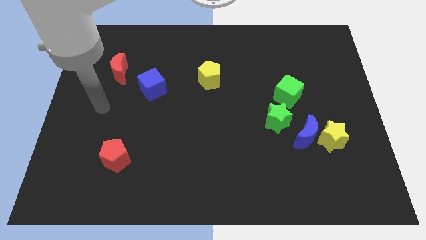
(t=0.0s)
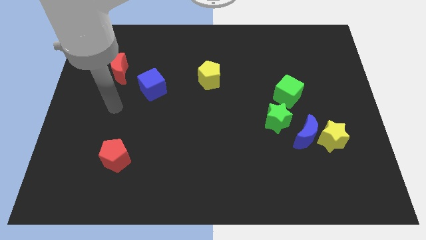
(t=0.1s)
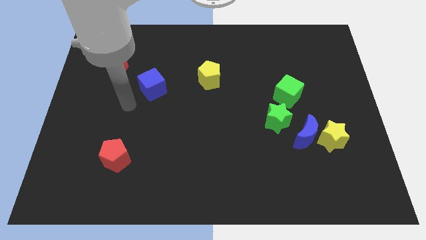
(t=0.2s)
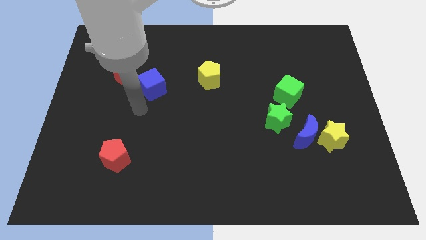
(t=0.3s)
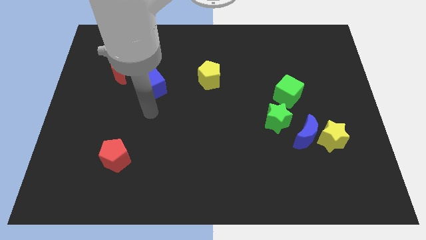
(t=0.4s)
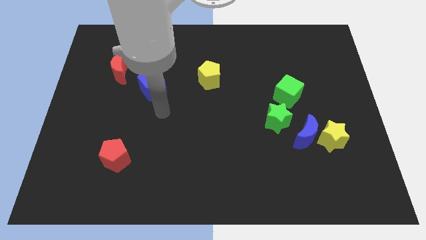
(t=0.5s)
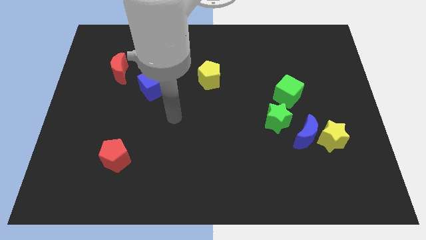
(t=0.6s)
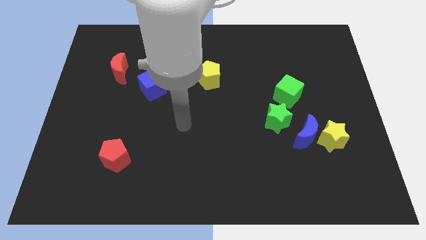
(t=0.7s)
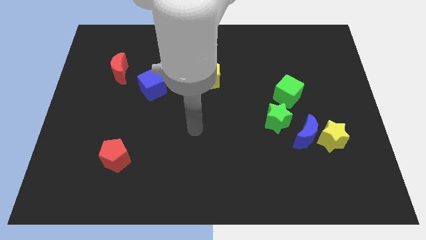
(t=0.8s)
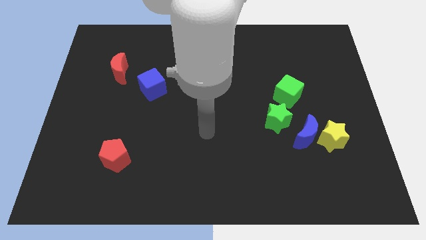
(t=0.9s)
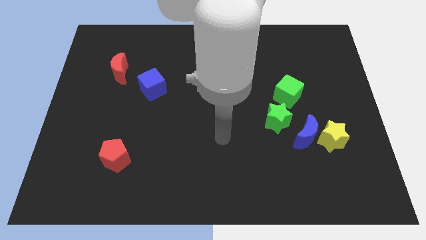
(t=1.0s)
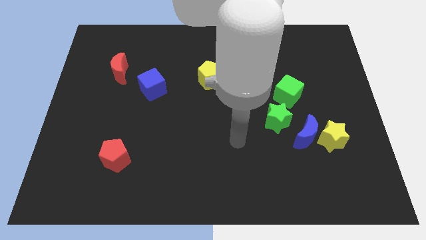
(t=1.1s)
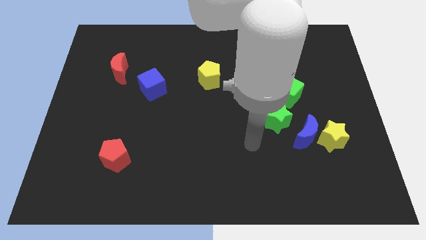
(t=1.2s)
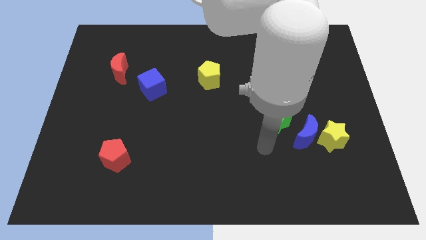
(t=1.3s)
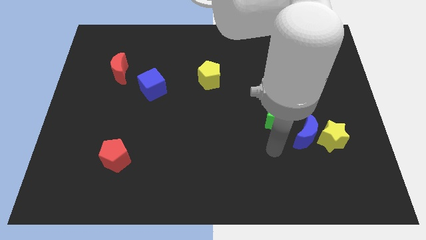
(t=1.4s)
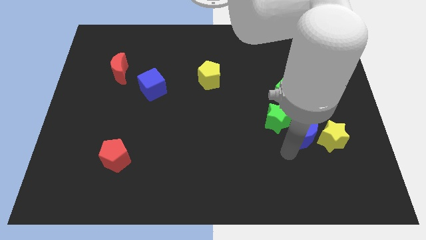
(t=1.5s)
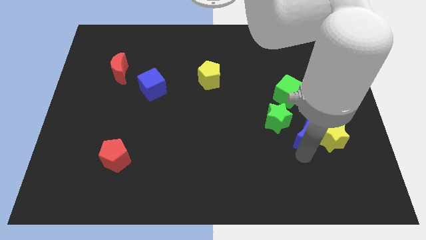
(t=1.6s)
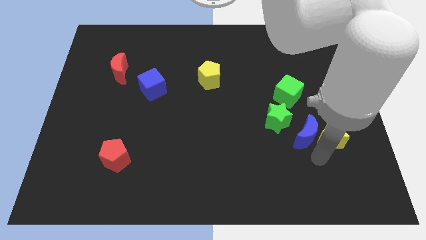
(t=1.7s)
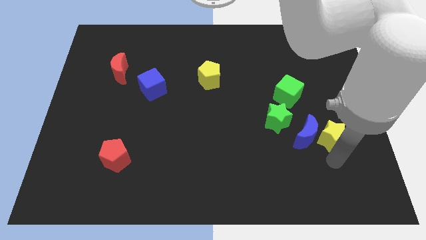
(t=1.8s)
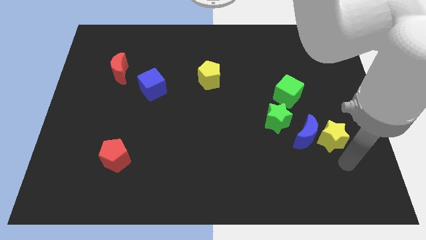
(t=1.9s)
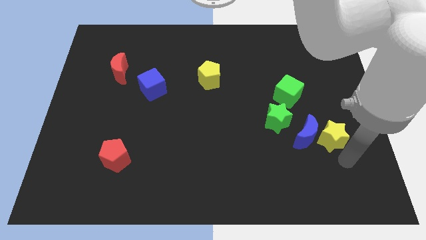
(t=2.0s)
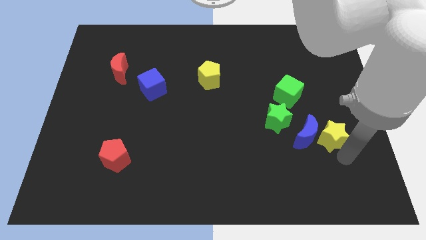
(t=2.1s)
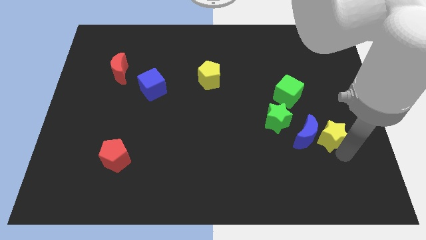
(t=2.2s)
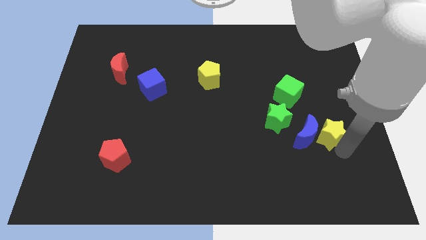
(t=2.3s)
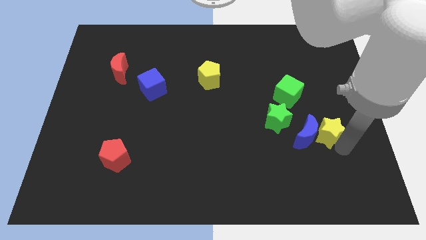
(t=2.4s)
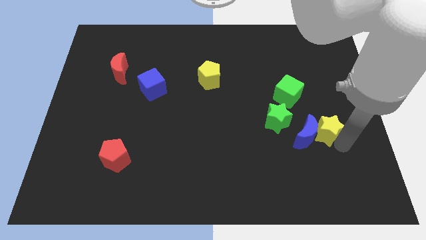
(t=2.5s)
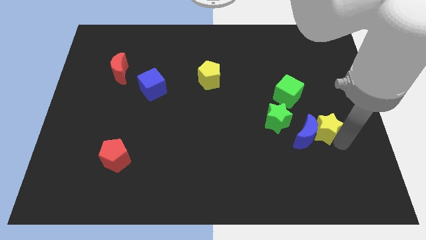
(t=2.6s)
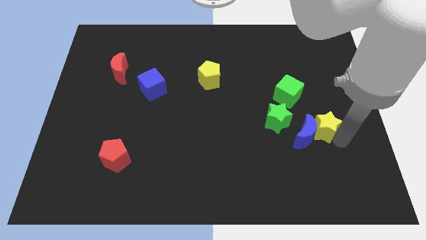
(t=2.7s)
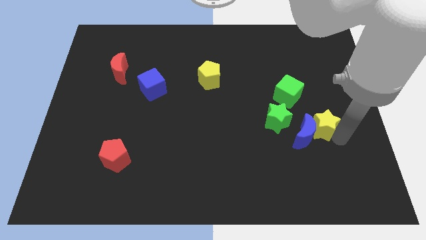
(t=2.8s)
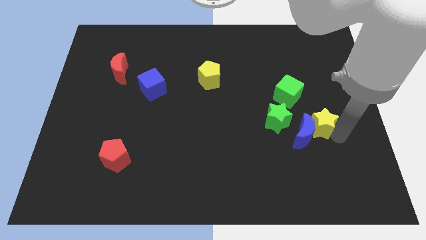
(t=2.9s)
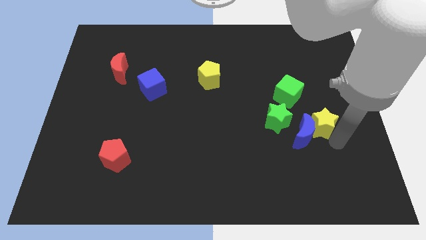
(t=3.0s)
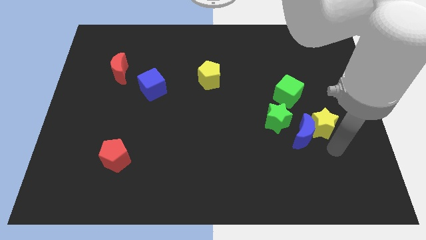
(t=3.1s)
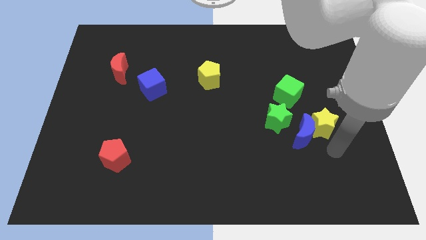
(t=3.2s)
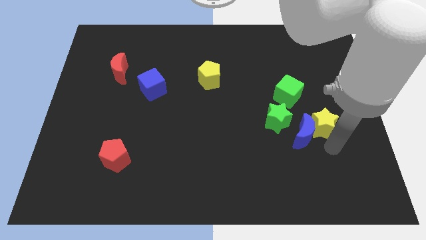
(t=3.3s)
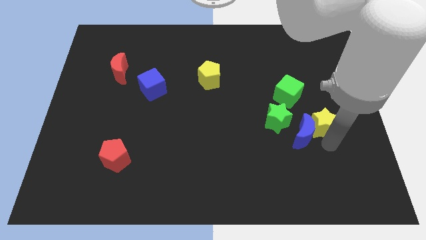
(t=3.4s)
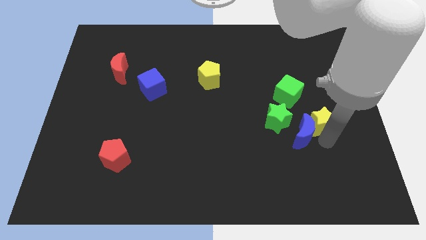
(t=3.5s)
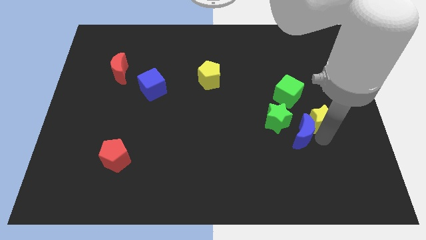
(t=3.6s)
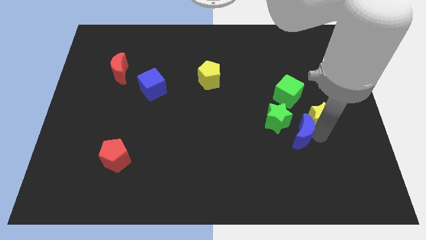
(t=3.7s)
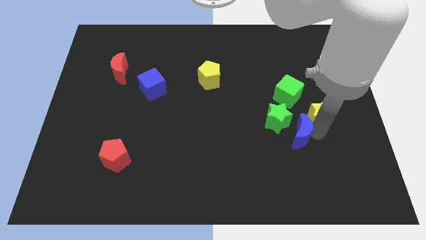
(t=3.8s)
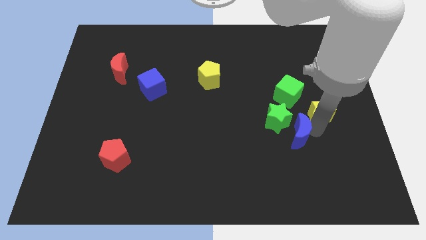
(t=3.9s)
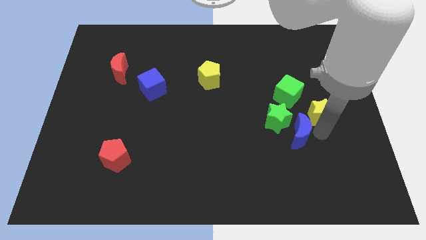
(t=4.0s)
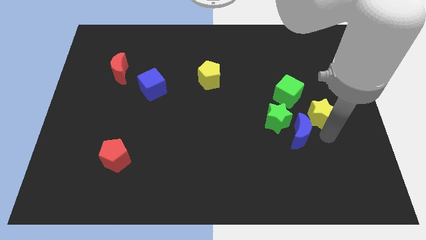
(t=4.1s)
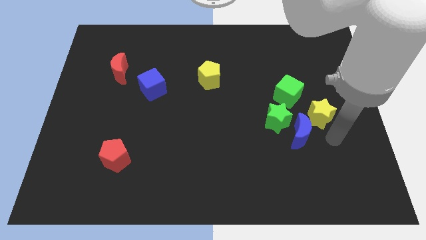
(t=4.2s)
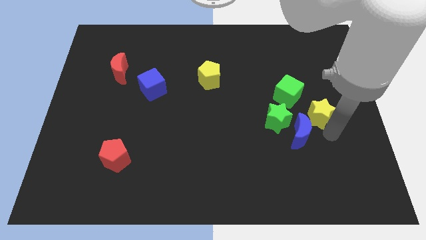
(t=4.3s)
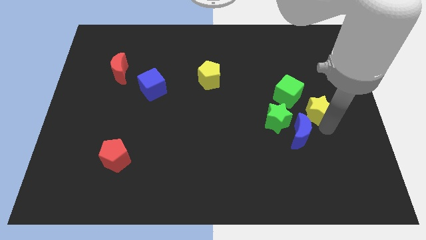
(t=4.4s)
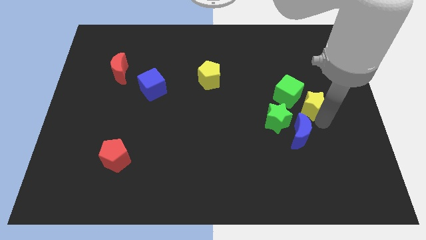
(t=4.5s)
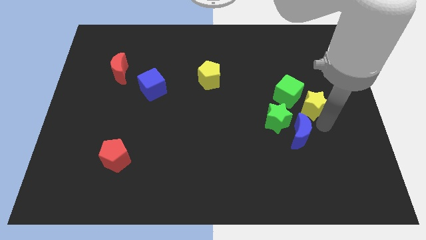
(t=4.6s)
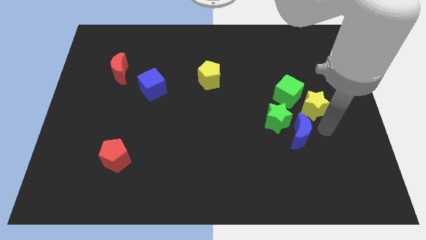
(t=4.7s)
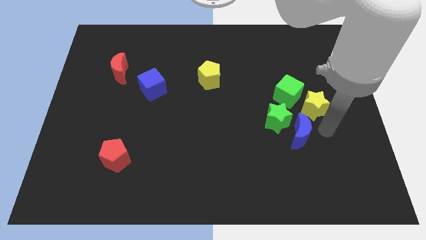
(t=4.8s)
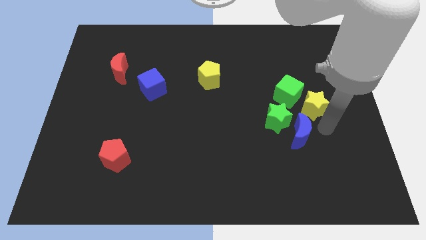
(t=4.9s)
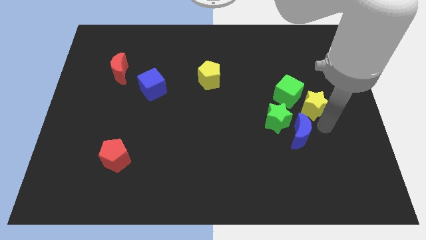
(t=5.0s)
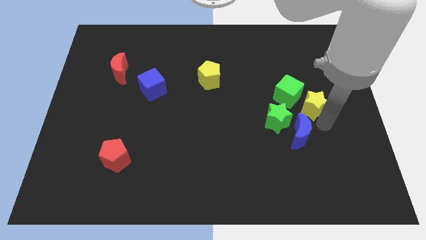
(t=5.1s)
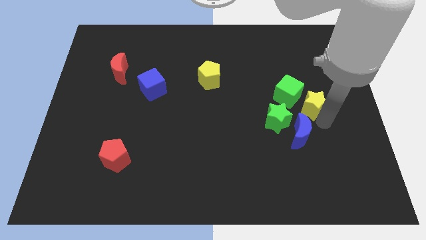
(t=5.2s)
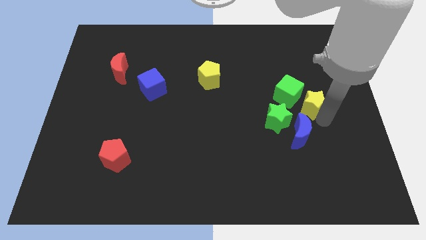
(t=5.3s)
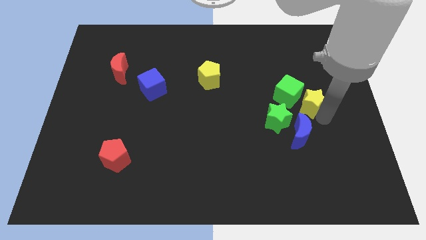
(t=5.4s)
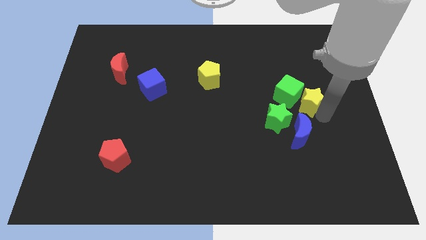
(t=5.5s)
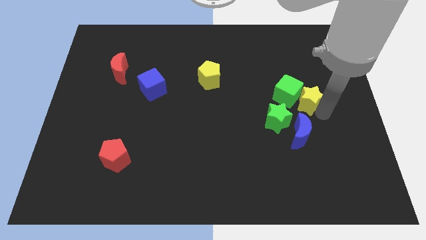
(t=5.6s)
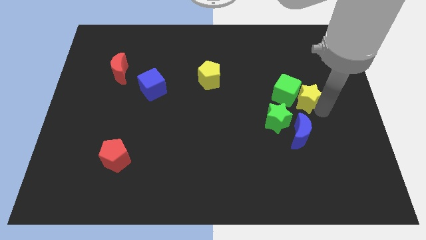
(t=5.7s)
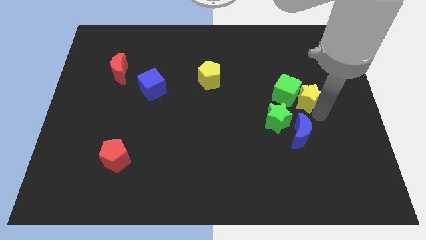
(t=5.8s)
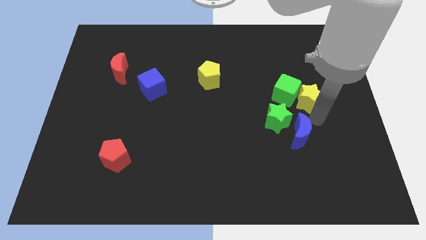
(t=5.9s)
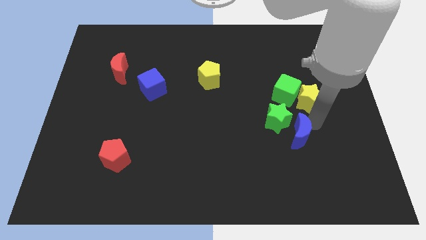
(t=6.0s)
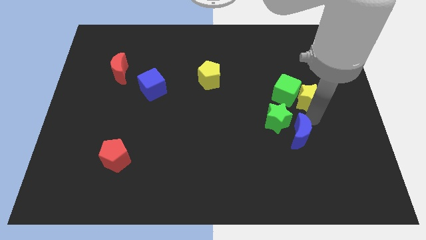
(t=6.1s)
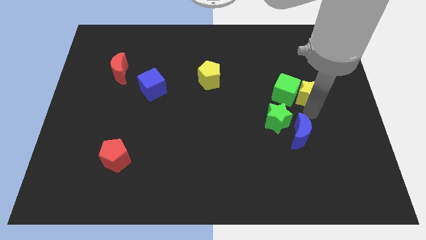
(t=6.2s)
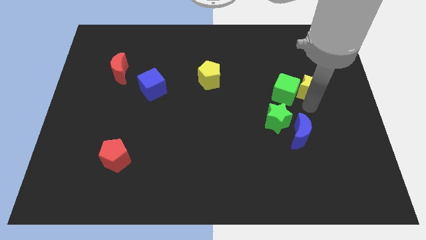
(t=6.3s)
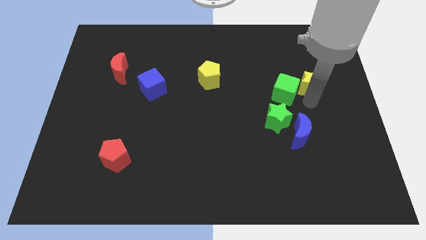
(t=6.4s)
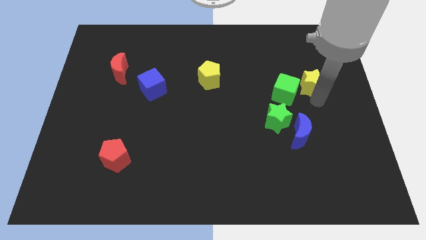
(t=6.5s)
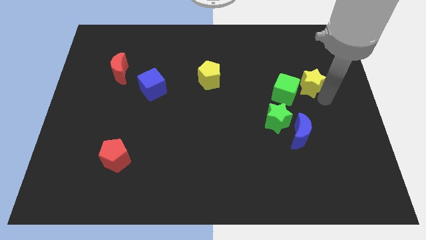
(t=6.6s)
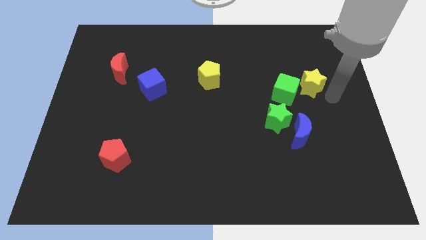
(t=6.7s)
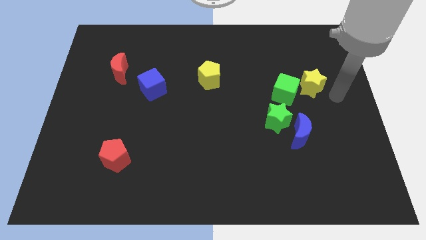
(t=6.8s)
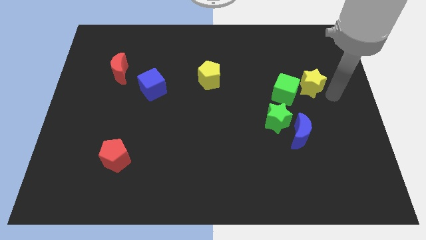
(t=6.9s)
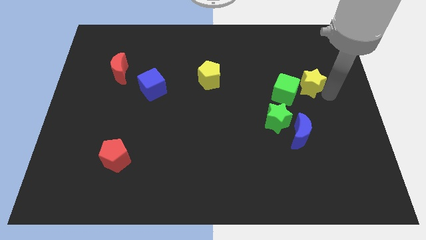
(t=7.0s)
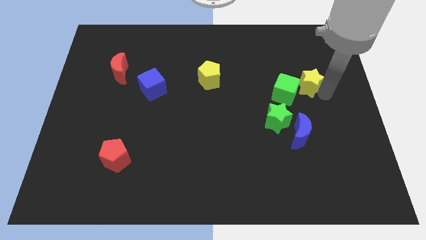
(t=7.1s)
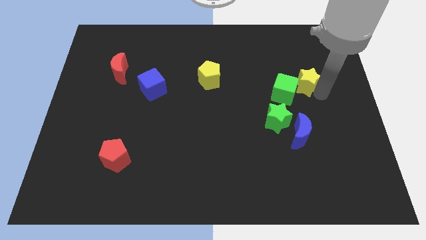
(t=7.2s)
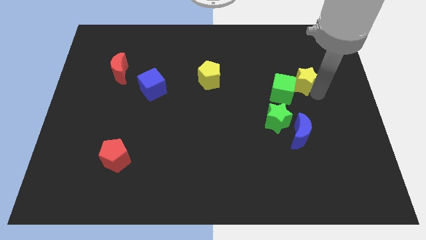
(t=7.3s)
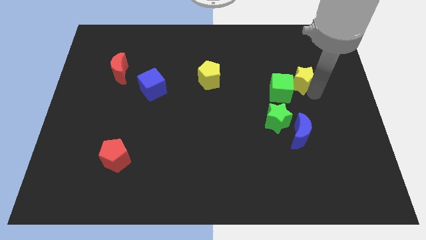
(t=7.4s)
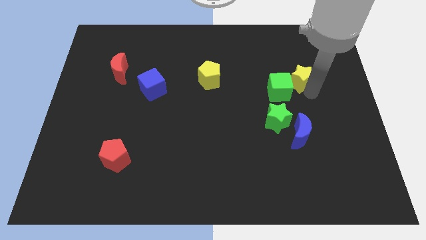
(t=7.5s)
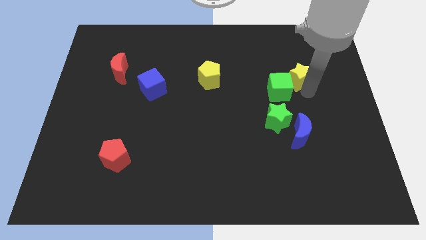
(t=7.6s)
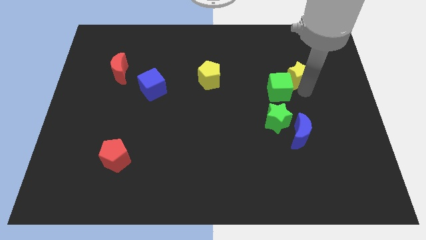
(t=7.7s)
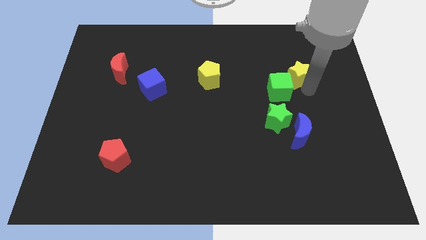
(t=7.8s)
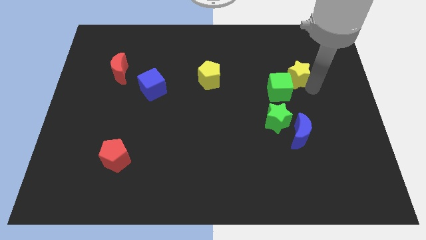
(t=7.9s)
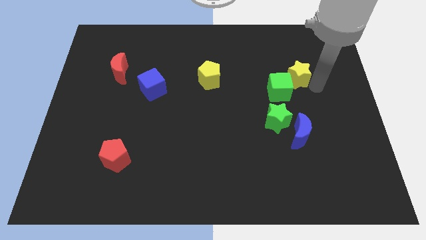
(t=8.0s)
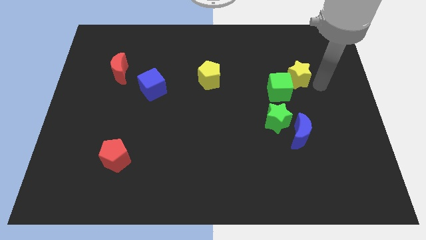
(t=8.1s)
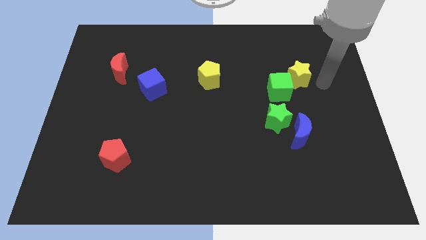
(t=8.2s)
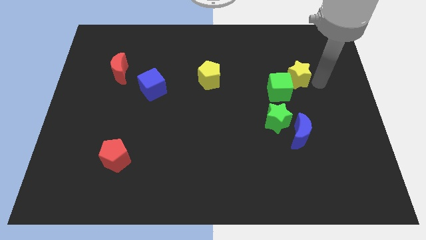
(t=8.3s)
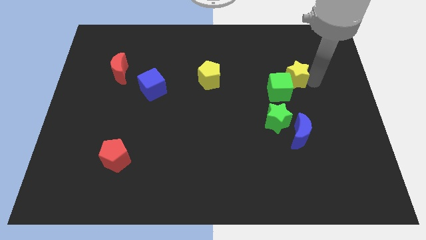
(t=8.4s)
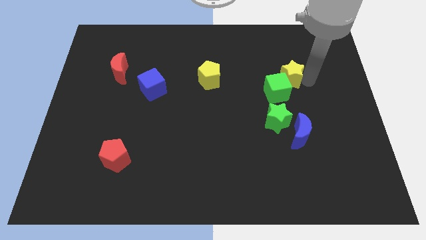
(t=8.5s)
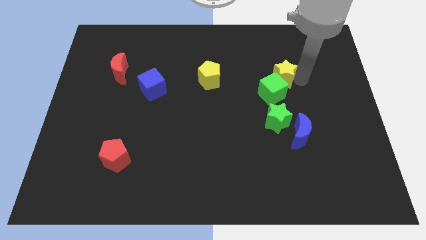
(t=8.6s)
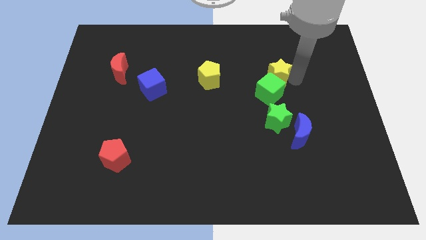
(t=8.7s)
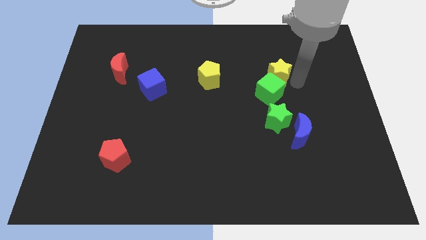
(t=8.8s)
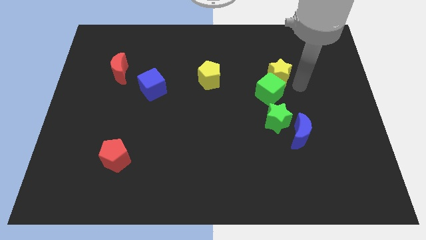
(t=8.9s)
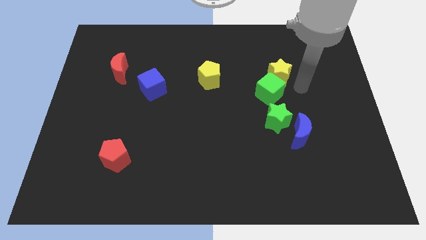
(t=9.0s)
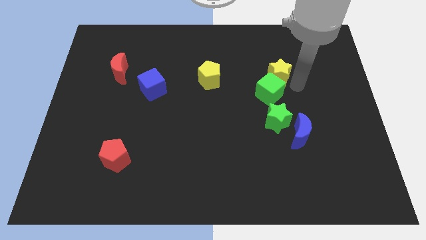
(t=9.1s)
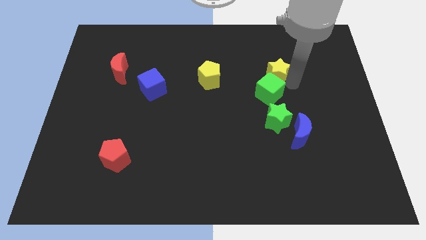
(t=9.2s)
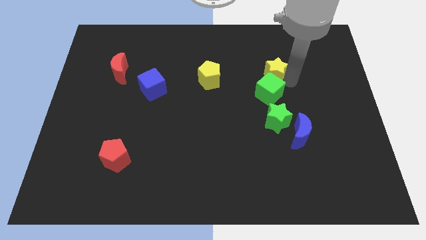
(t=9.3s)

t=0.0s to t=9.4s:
move the yellow star upwards and to the left
